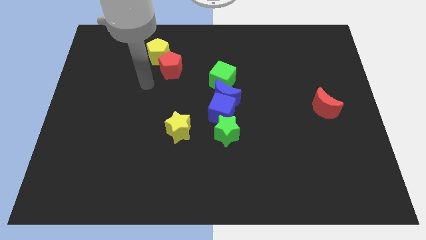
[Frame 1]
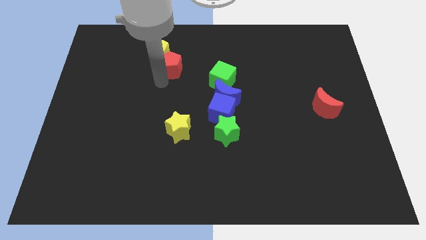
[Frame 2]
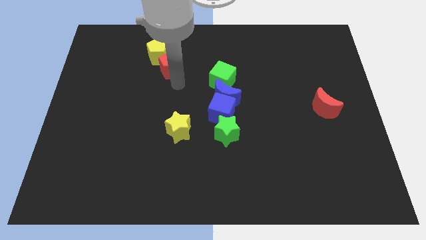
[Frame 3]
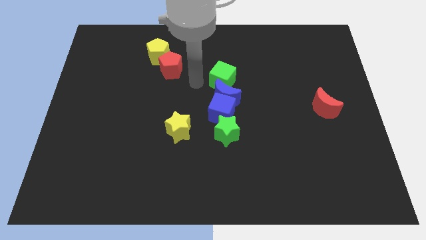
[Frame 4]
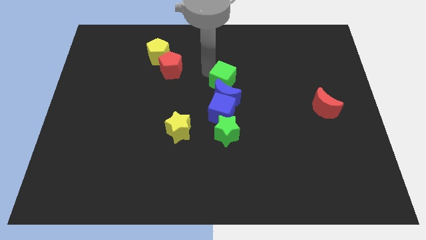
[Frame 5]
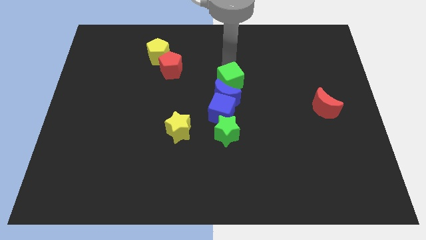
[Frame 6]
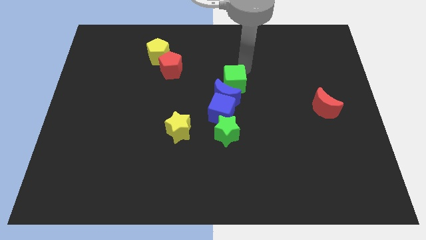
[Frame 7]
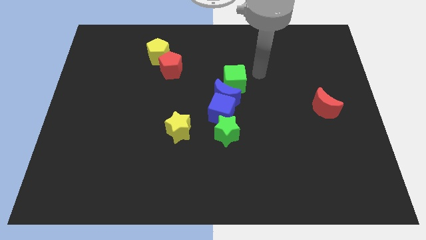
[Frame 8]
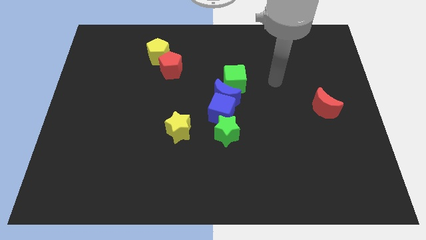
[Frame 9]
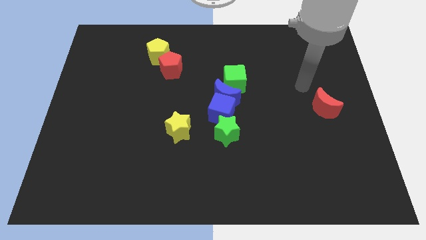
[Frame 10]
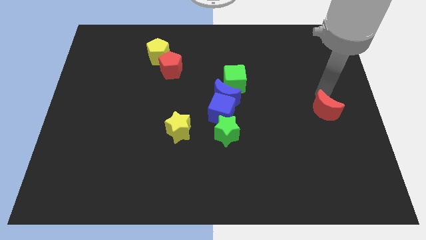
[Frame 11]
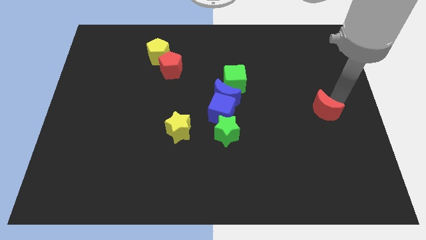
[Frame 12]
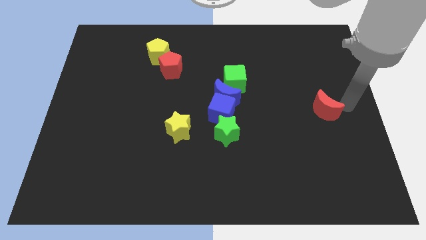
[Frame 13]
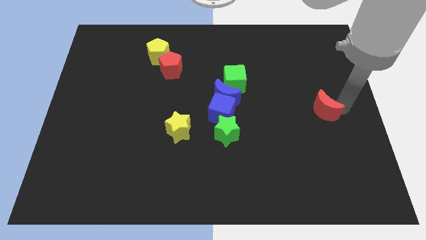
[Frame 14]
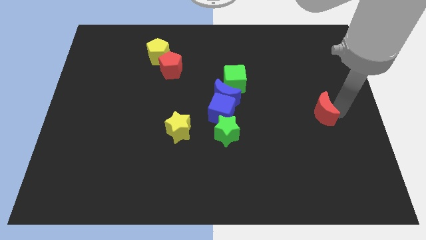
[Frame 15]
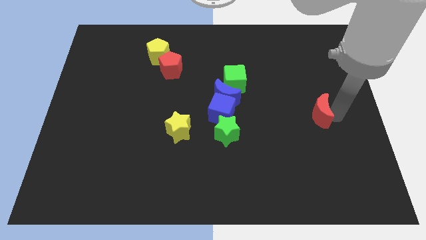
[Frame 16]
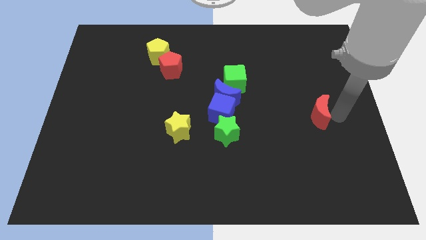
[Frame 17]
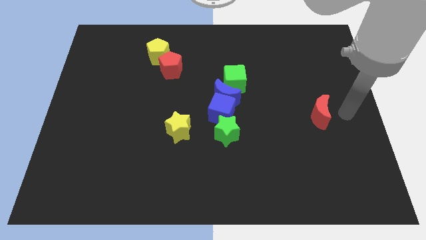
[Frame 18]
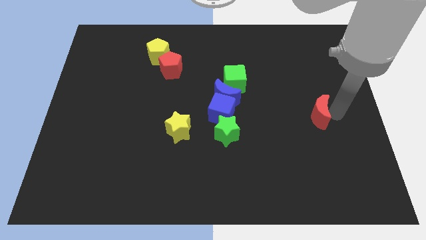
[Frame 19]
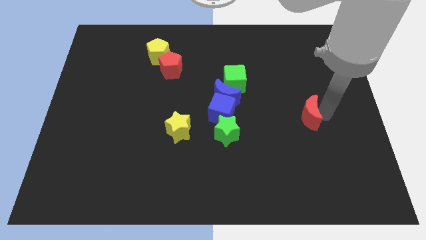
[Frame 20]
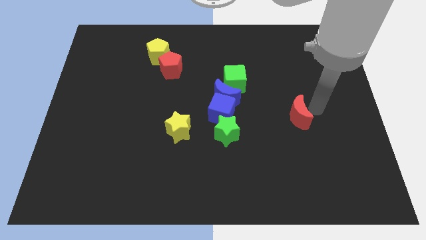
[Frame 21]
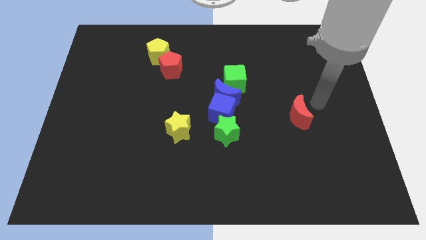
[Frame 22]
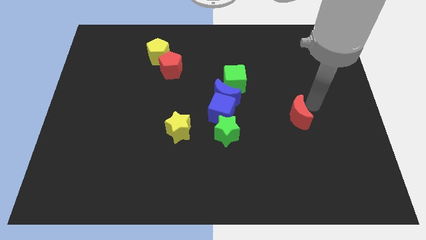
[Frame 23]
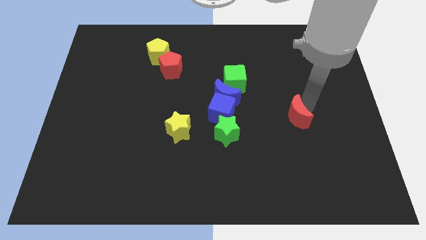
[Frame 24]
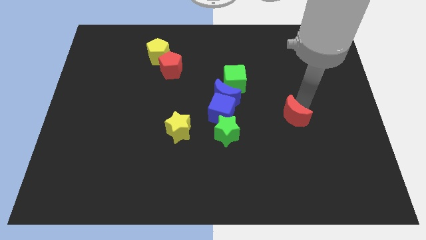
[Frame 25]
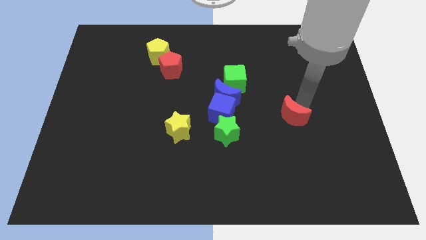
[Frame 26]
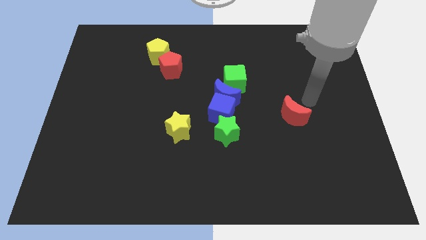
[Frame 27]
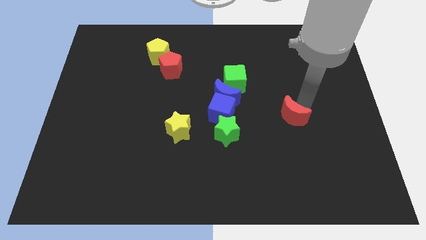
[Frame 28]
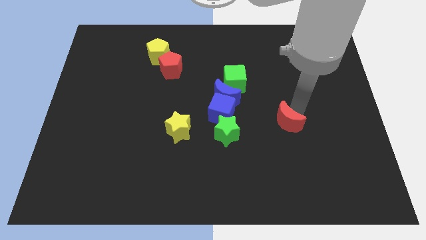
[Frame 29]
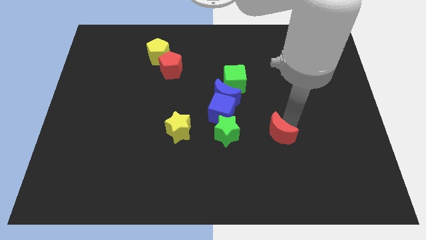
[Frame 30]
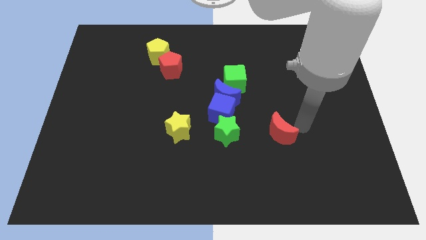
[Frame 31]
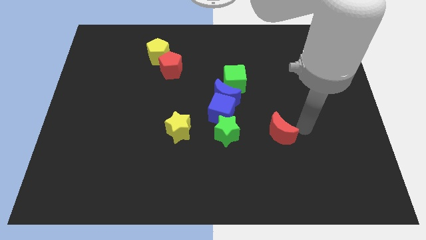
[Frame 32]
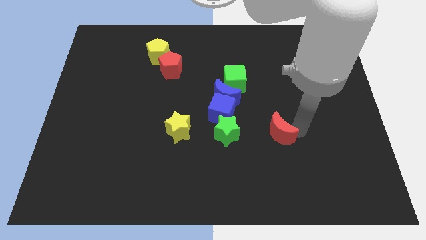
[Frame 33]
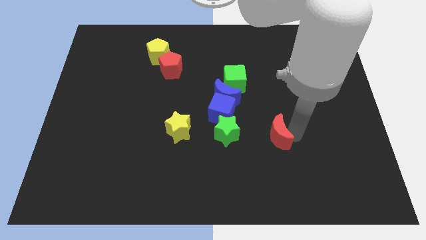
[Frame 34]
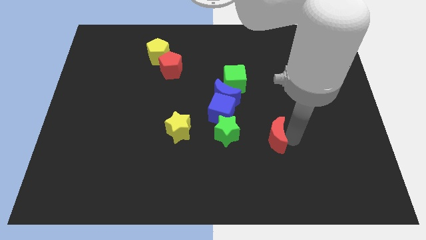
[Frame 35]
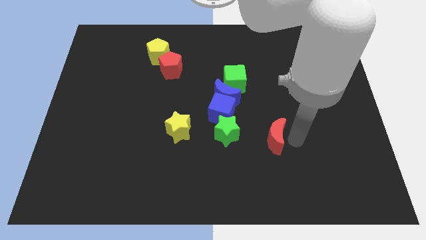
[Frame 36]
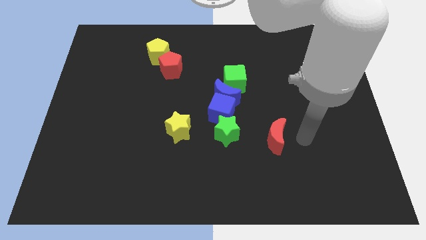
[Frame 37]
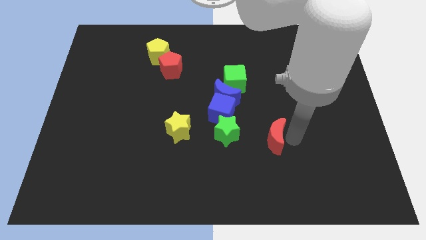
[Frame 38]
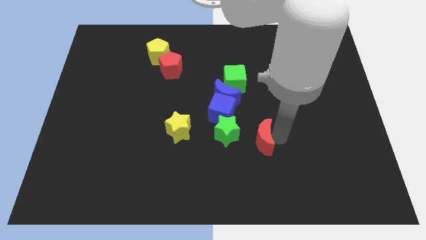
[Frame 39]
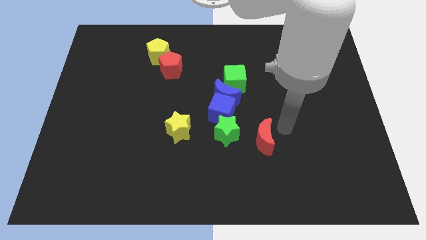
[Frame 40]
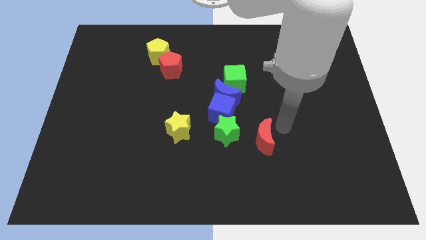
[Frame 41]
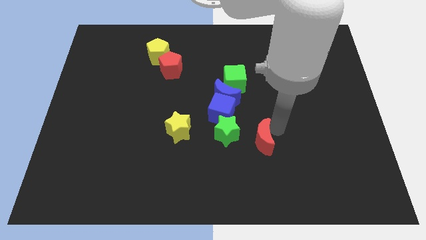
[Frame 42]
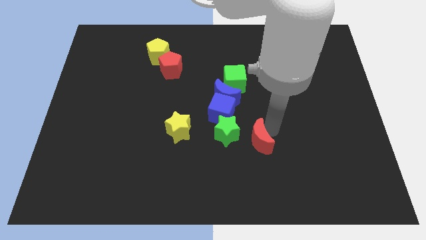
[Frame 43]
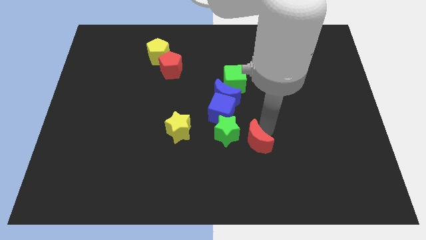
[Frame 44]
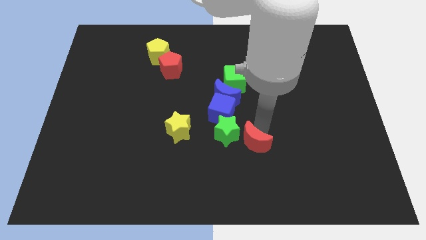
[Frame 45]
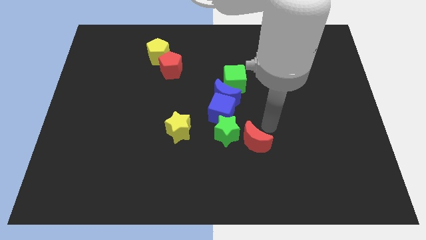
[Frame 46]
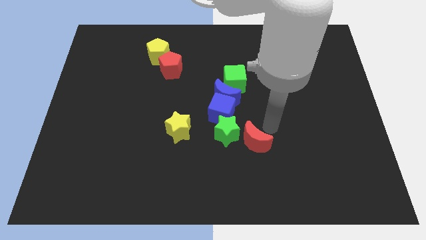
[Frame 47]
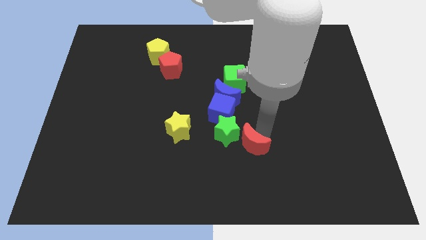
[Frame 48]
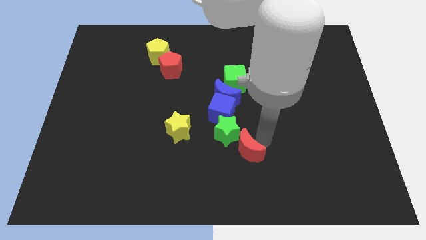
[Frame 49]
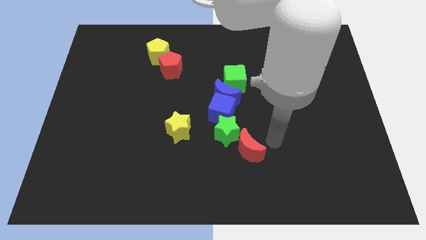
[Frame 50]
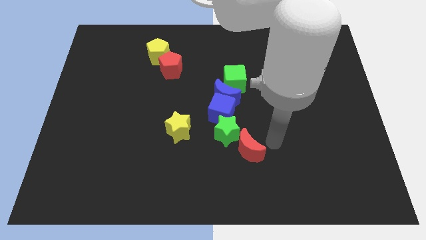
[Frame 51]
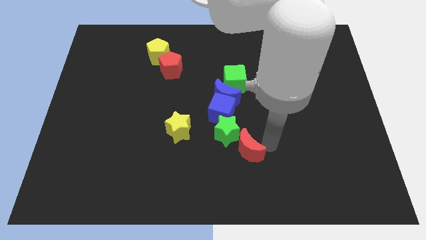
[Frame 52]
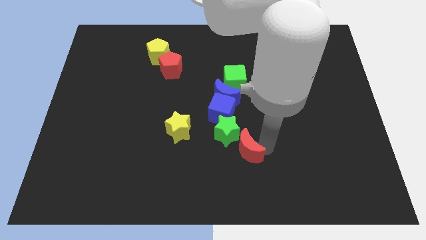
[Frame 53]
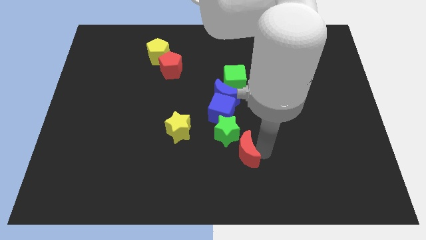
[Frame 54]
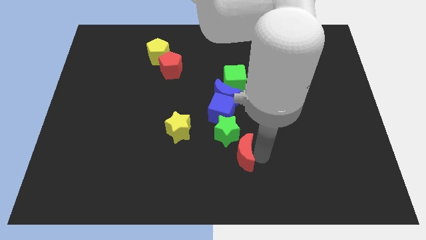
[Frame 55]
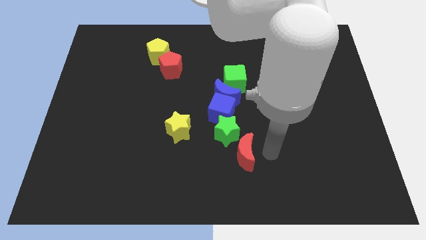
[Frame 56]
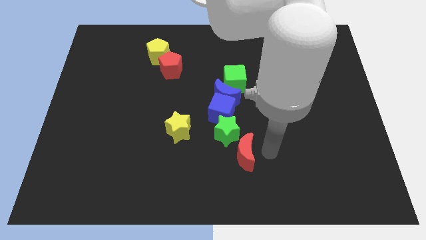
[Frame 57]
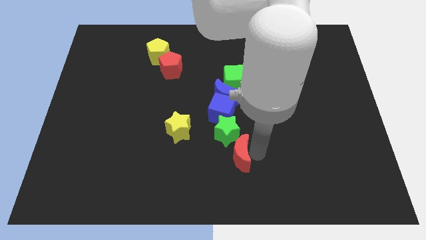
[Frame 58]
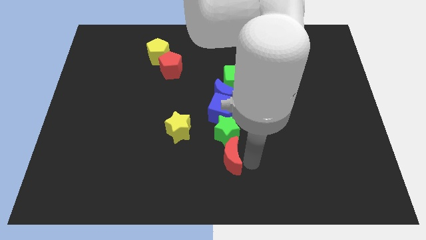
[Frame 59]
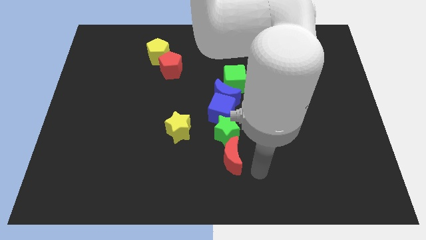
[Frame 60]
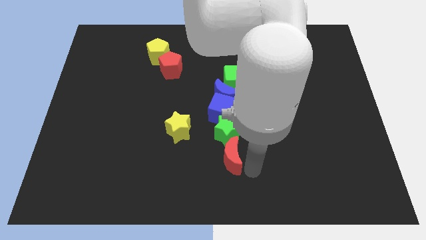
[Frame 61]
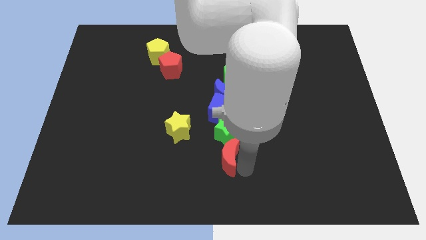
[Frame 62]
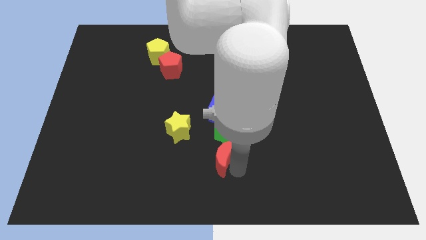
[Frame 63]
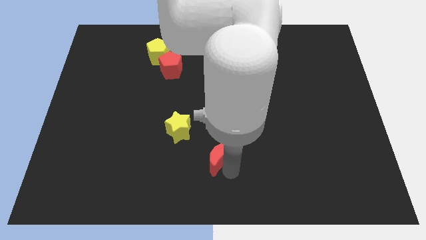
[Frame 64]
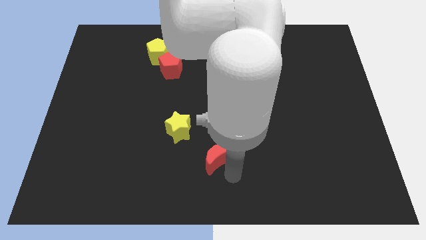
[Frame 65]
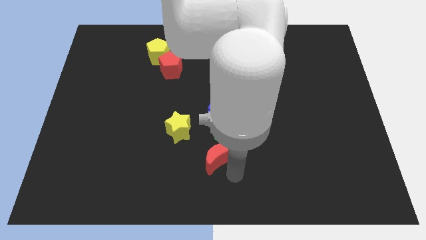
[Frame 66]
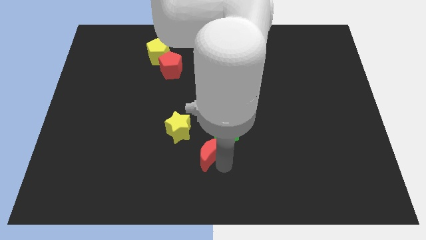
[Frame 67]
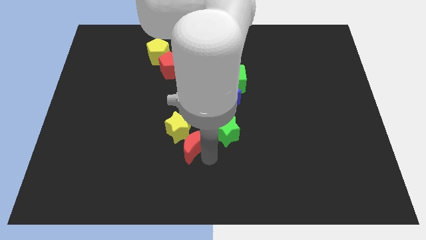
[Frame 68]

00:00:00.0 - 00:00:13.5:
push the red moon left

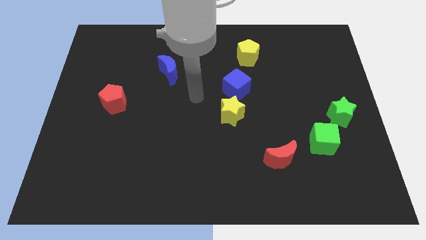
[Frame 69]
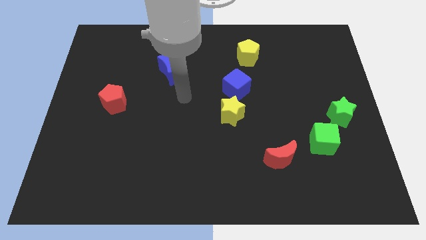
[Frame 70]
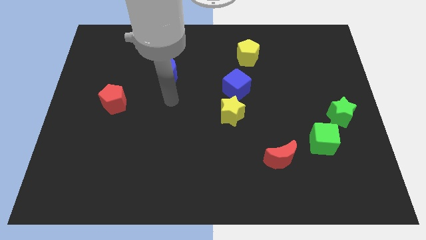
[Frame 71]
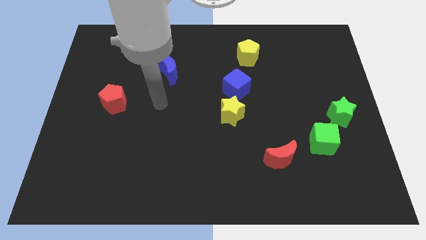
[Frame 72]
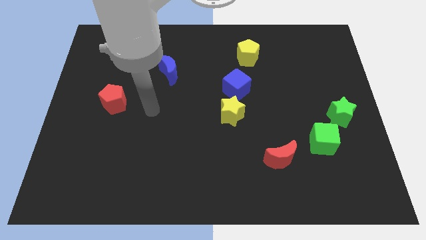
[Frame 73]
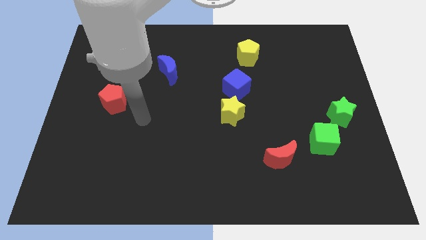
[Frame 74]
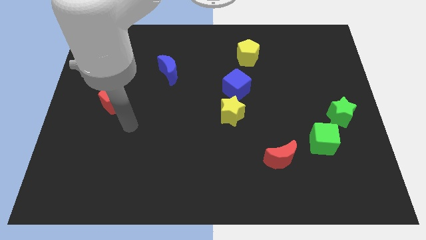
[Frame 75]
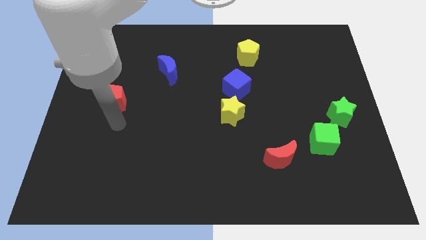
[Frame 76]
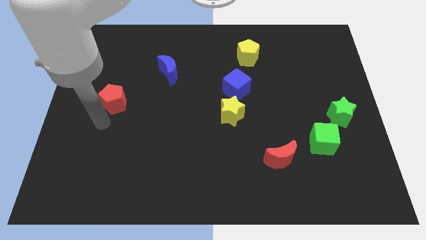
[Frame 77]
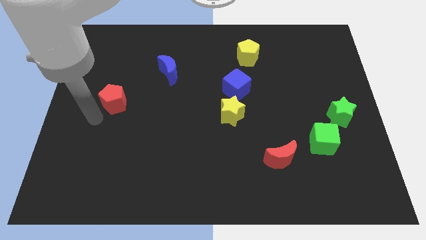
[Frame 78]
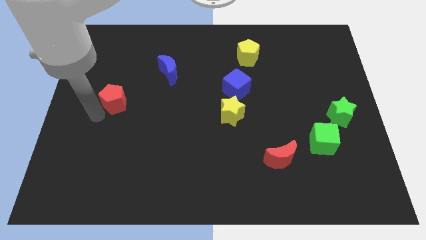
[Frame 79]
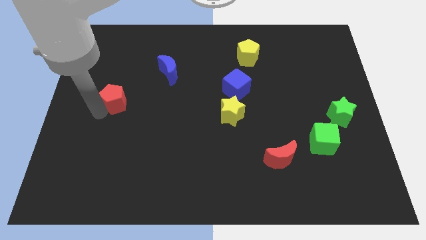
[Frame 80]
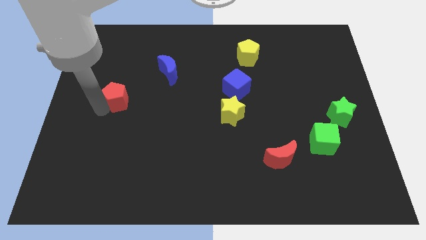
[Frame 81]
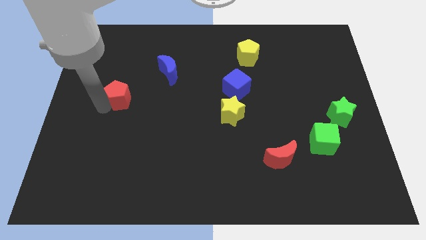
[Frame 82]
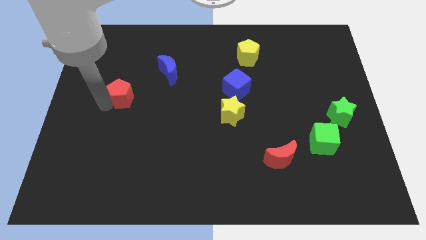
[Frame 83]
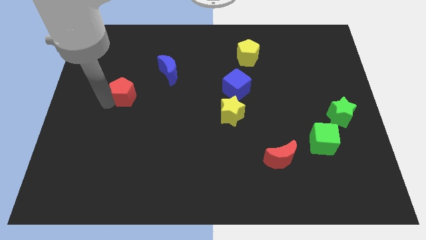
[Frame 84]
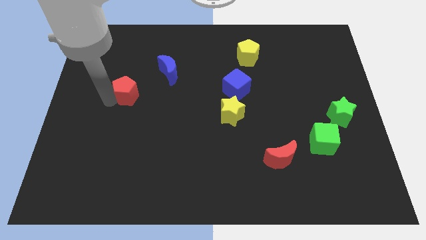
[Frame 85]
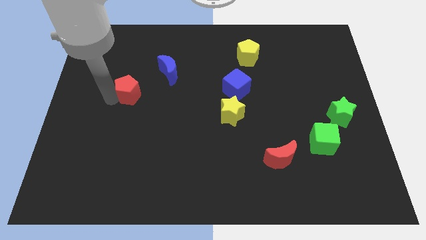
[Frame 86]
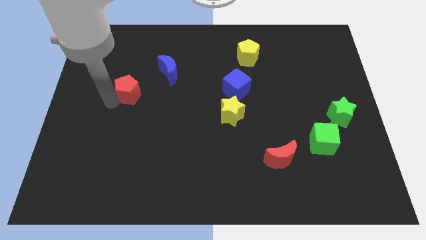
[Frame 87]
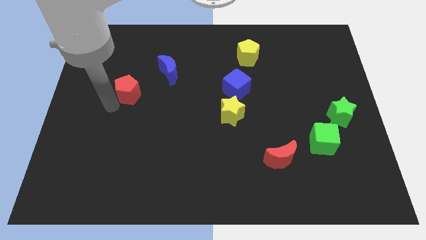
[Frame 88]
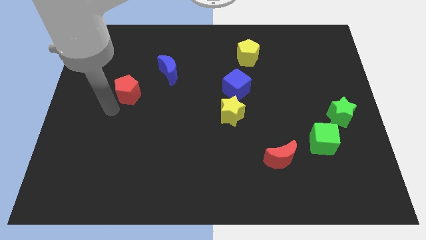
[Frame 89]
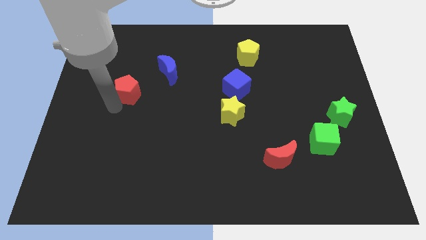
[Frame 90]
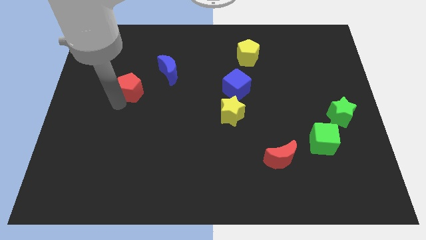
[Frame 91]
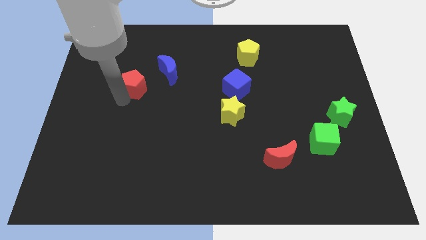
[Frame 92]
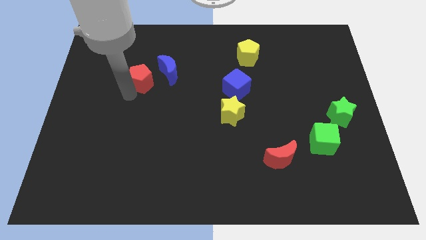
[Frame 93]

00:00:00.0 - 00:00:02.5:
move the red pentagon a little bit upwards and then right
